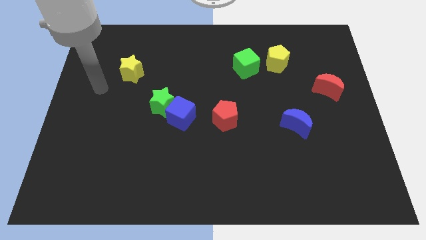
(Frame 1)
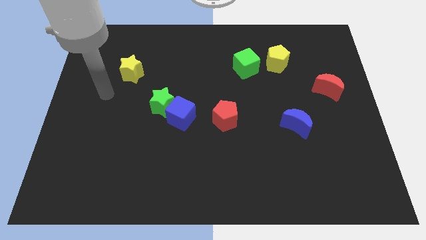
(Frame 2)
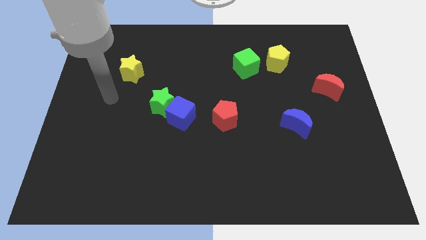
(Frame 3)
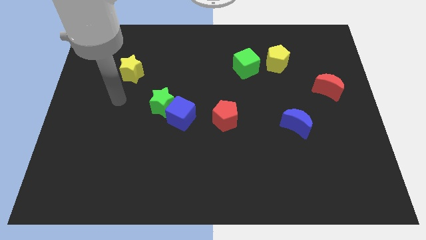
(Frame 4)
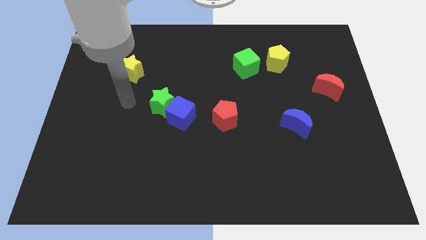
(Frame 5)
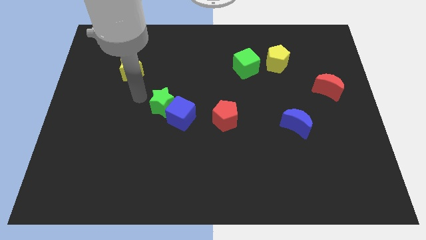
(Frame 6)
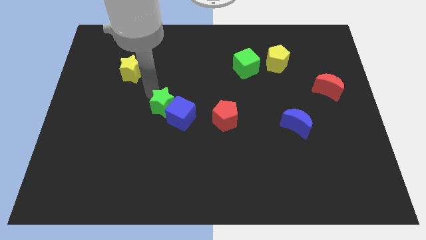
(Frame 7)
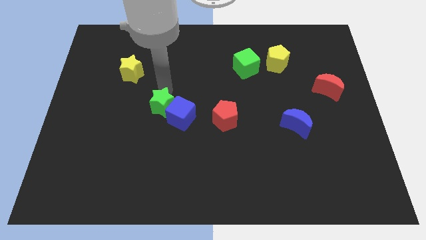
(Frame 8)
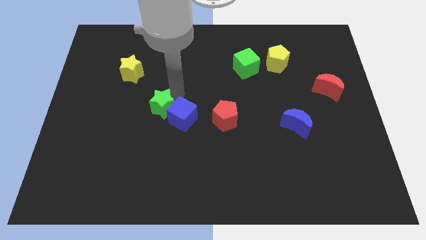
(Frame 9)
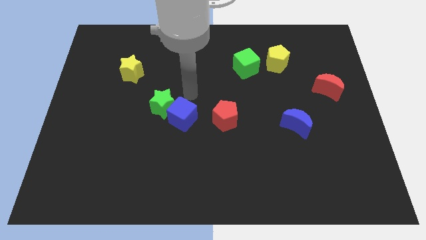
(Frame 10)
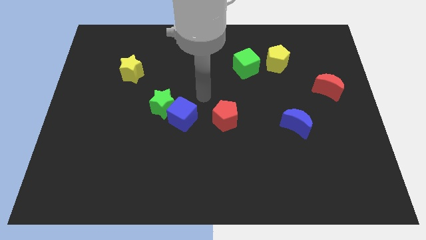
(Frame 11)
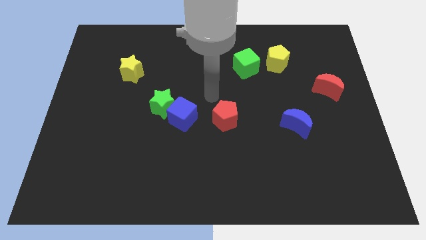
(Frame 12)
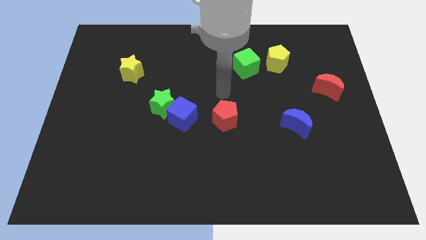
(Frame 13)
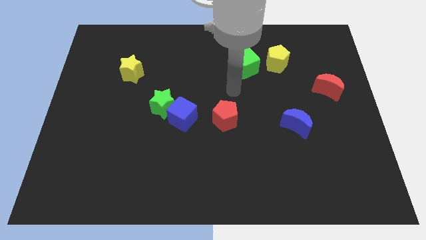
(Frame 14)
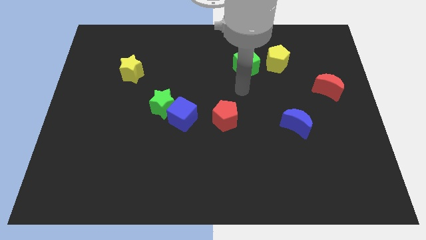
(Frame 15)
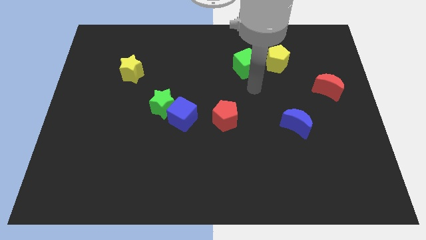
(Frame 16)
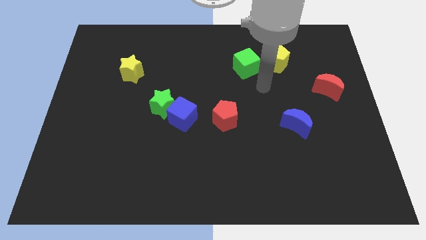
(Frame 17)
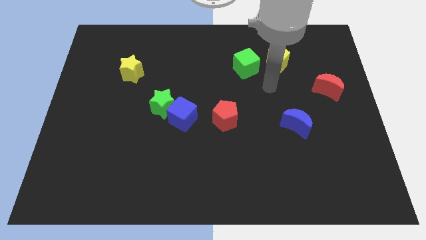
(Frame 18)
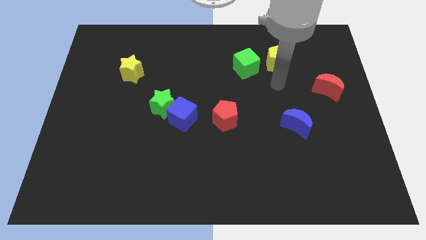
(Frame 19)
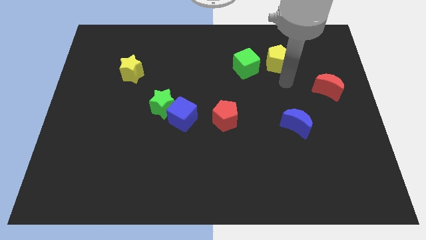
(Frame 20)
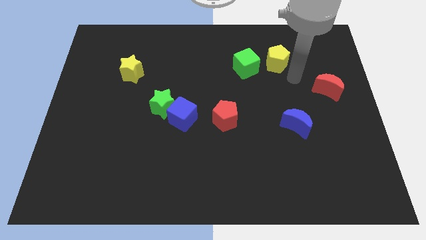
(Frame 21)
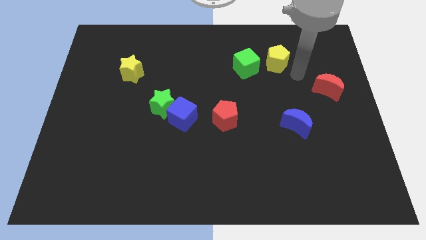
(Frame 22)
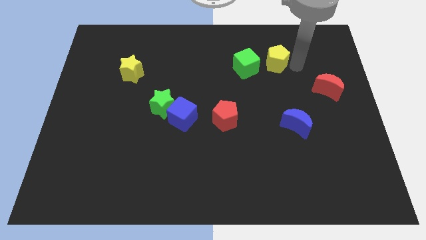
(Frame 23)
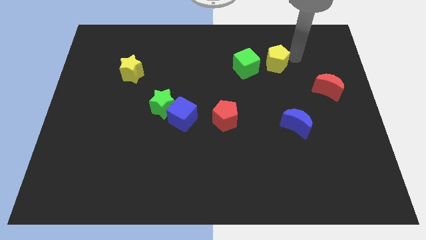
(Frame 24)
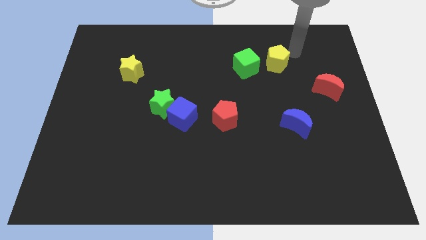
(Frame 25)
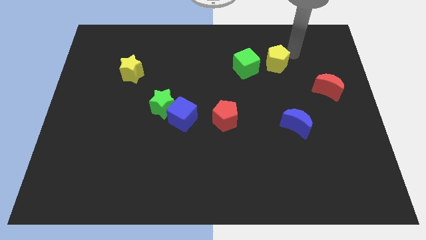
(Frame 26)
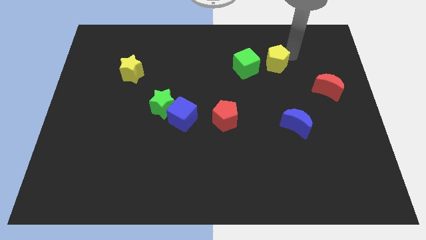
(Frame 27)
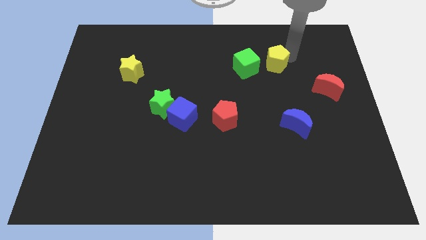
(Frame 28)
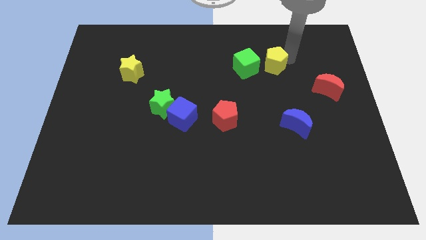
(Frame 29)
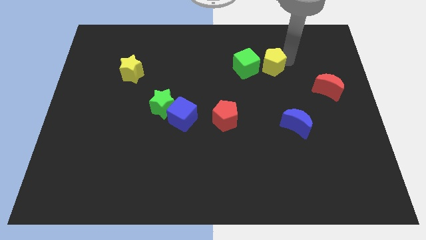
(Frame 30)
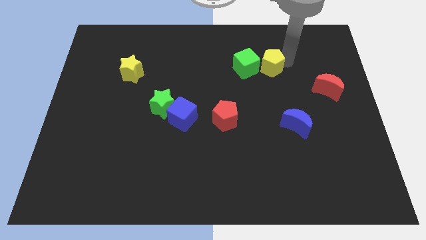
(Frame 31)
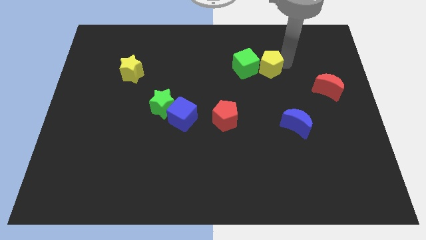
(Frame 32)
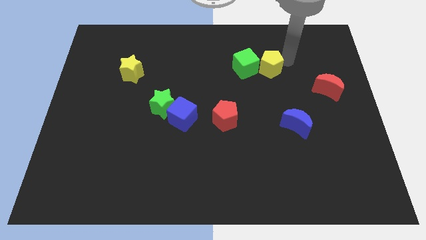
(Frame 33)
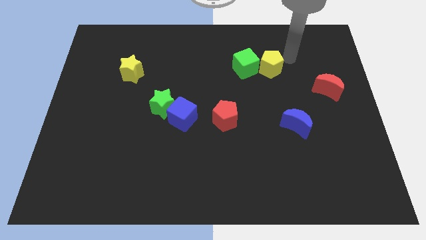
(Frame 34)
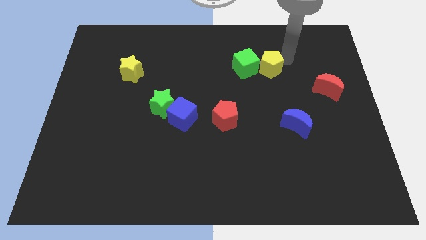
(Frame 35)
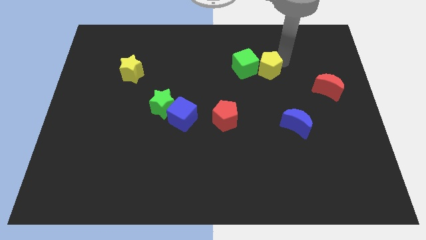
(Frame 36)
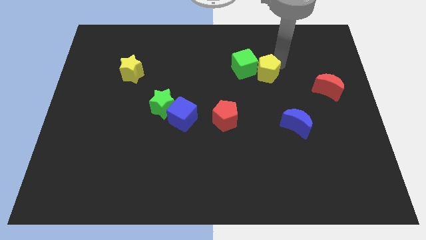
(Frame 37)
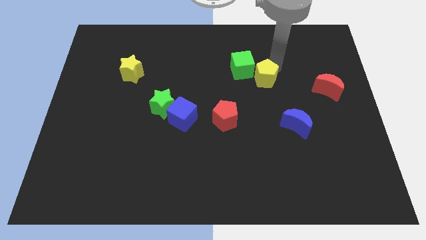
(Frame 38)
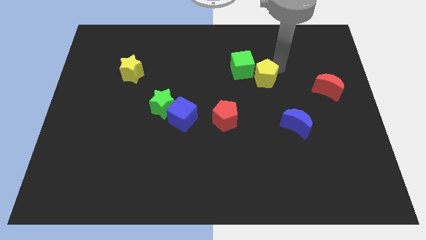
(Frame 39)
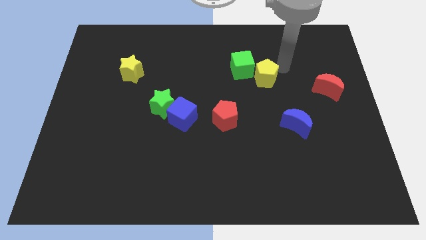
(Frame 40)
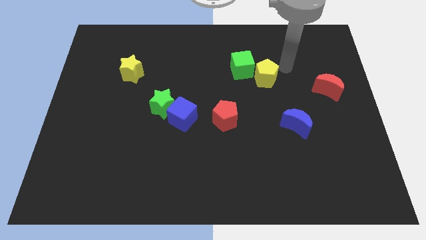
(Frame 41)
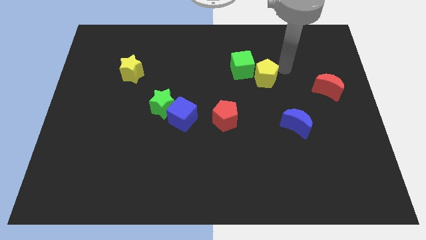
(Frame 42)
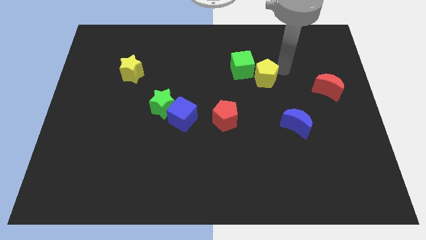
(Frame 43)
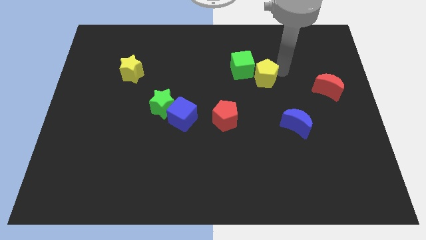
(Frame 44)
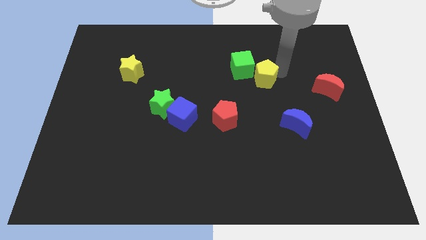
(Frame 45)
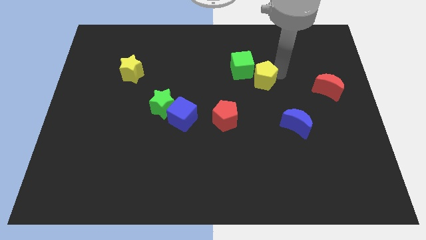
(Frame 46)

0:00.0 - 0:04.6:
slightly push the yellow pentagon down and to the left diagonally

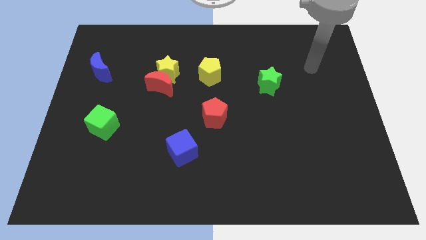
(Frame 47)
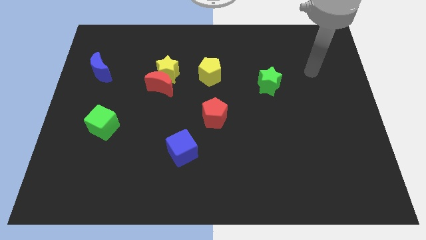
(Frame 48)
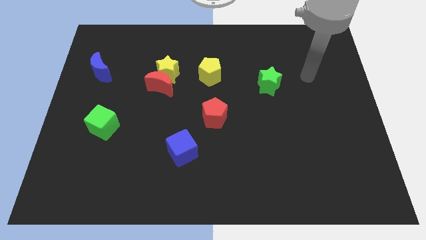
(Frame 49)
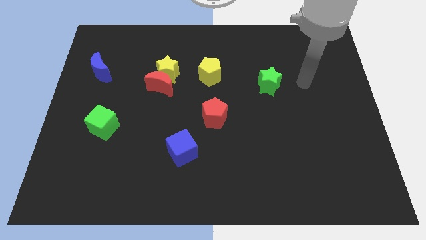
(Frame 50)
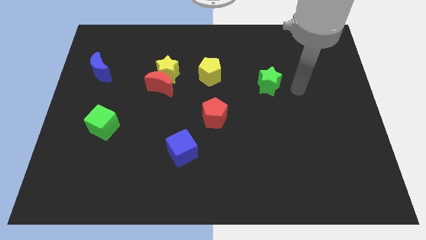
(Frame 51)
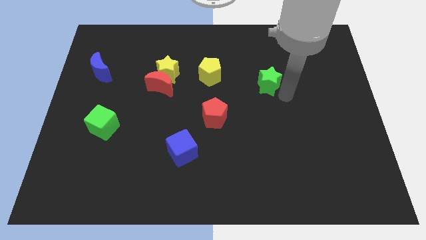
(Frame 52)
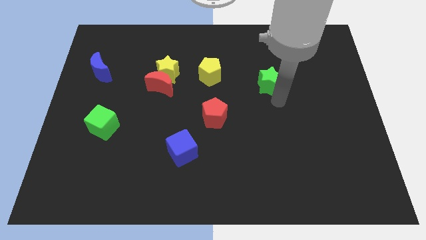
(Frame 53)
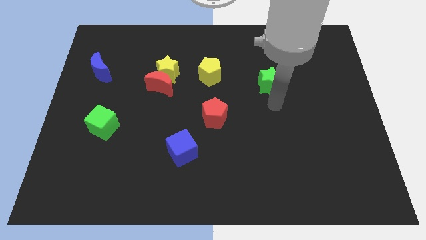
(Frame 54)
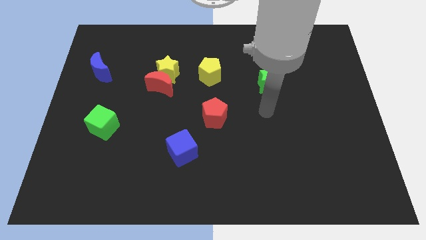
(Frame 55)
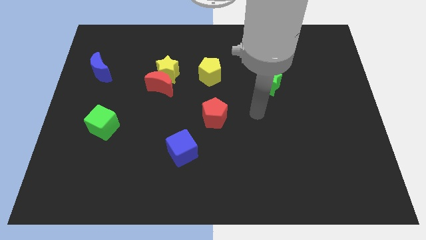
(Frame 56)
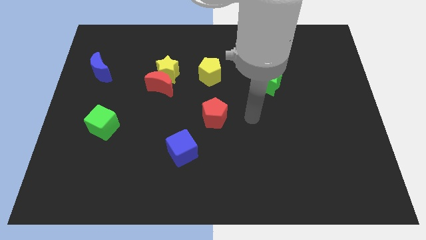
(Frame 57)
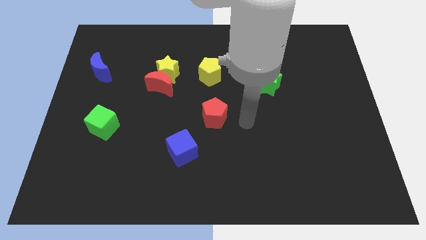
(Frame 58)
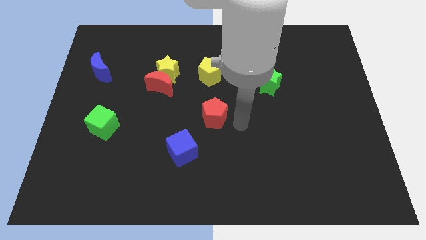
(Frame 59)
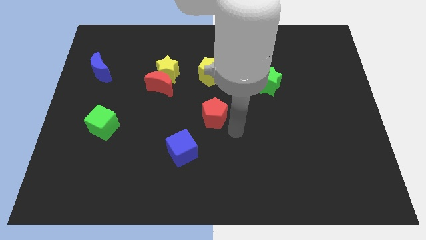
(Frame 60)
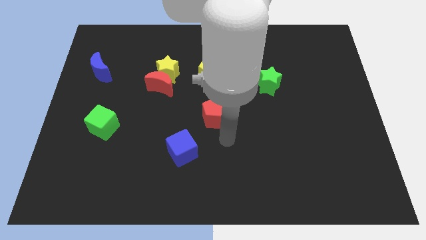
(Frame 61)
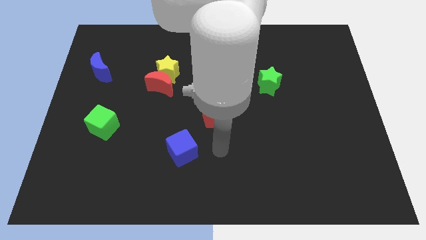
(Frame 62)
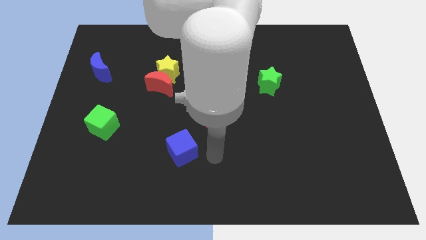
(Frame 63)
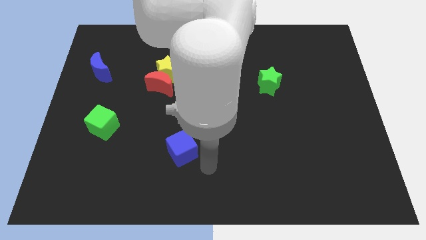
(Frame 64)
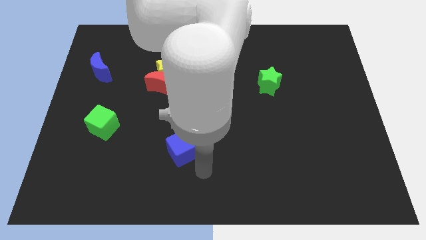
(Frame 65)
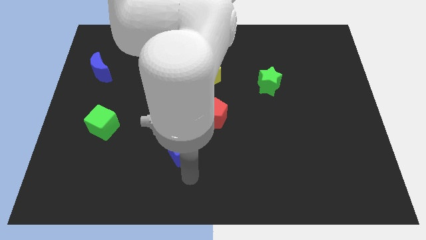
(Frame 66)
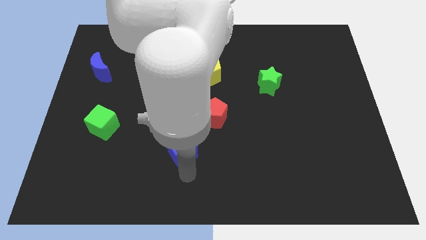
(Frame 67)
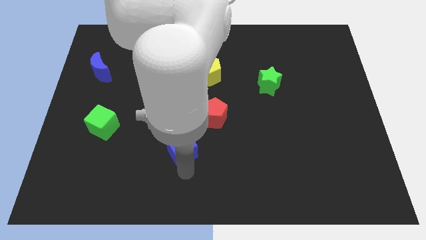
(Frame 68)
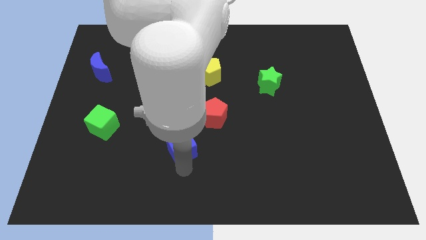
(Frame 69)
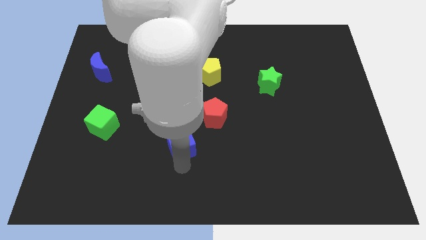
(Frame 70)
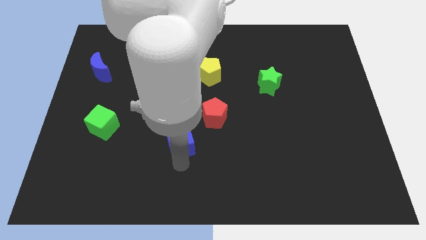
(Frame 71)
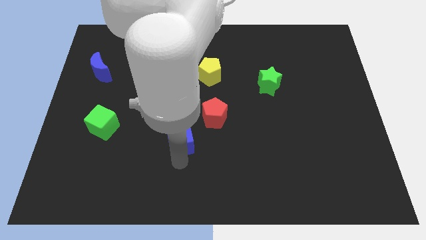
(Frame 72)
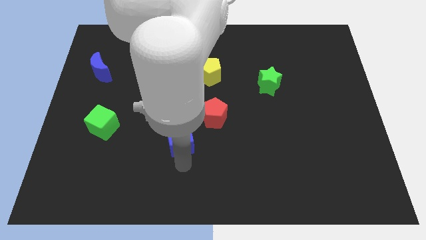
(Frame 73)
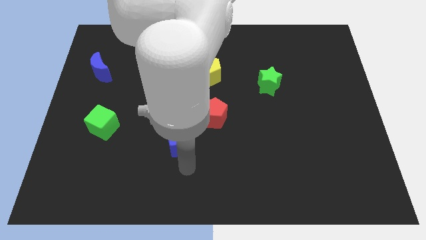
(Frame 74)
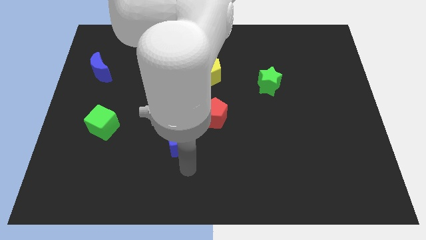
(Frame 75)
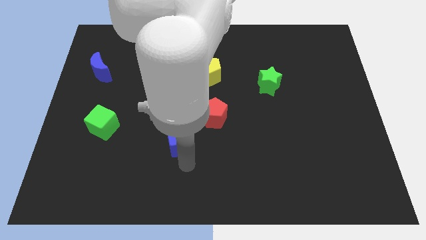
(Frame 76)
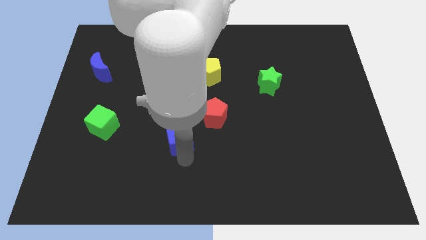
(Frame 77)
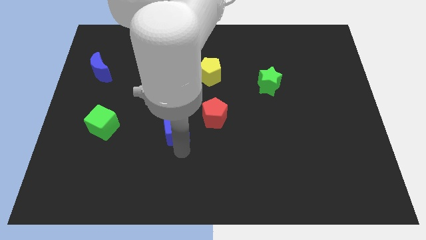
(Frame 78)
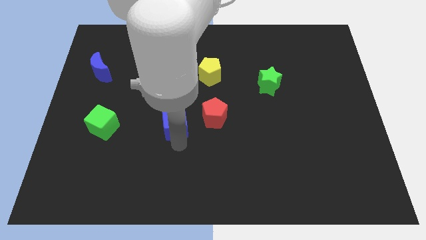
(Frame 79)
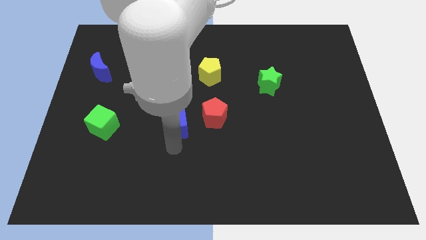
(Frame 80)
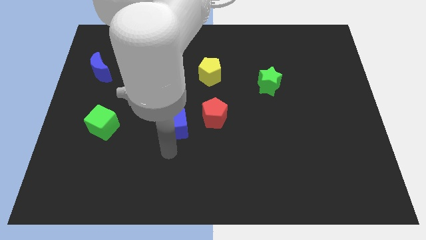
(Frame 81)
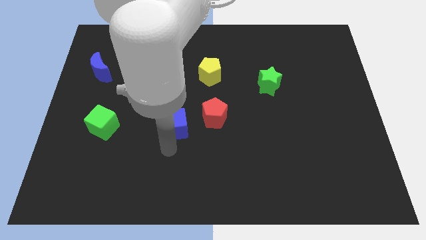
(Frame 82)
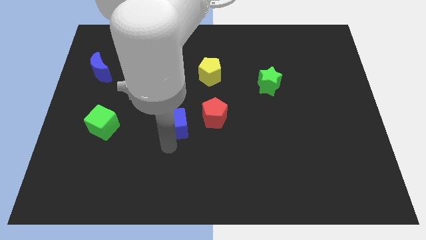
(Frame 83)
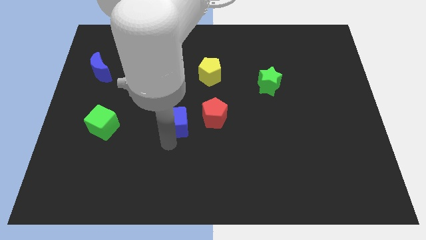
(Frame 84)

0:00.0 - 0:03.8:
slightly move the blue cube up
